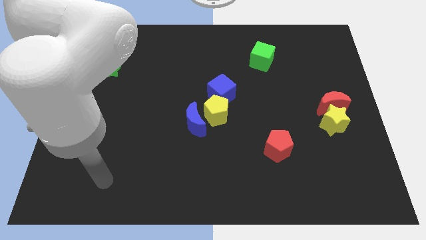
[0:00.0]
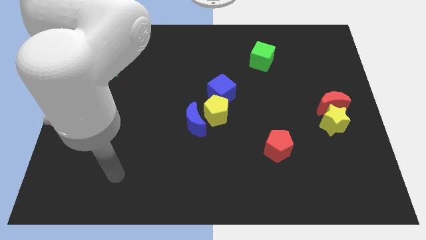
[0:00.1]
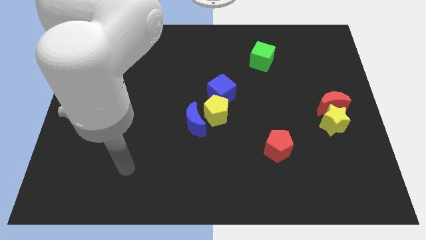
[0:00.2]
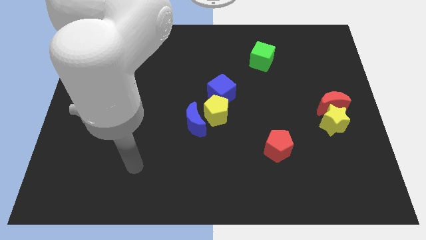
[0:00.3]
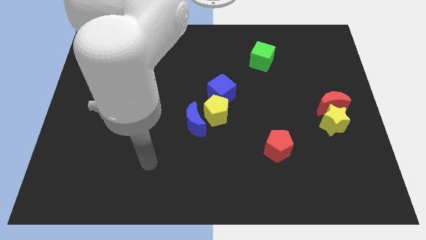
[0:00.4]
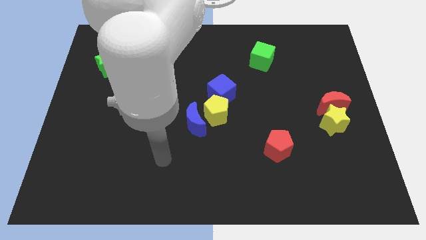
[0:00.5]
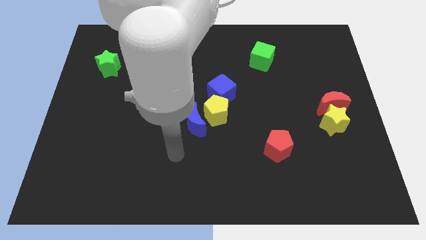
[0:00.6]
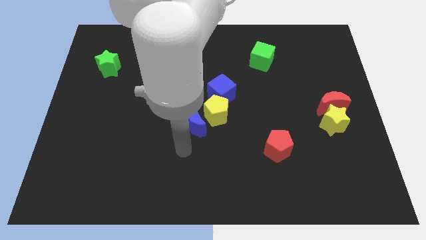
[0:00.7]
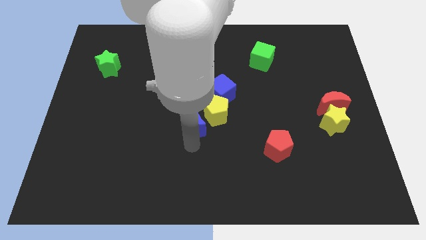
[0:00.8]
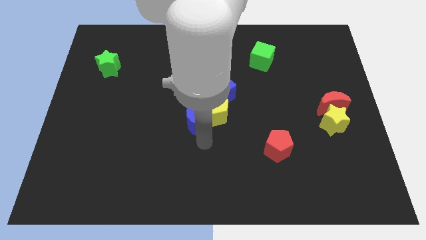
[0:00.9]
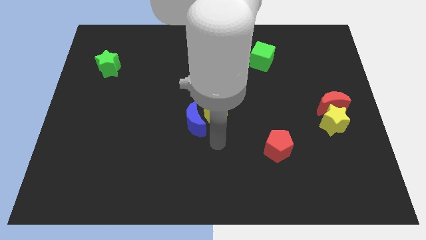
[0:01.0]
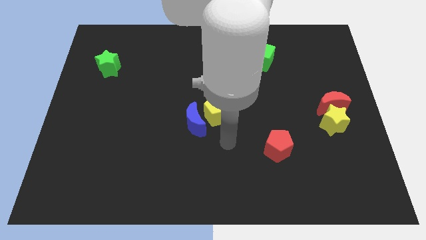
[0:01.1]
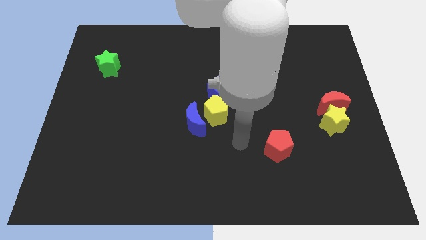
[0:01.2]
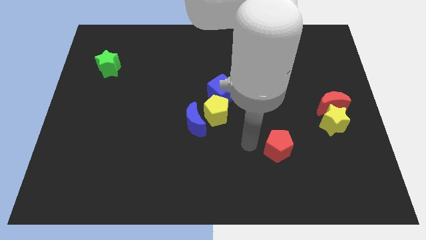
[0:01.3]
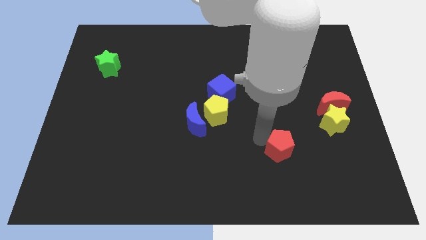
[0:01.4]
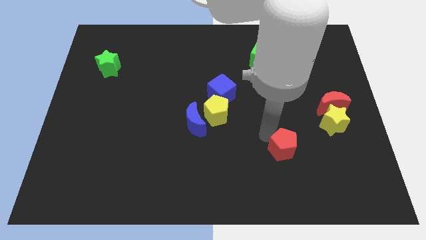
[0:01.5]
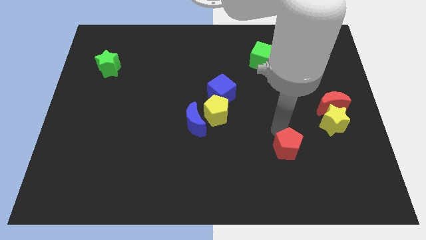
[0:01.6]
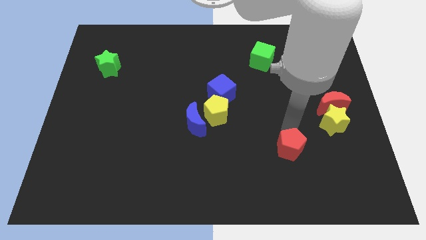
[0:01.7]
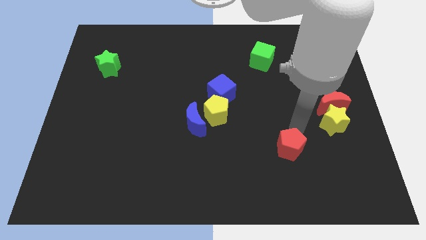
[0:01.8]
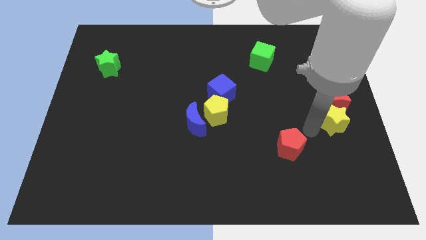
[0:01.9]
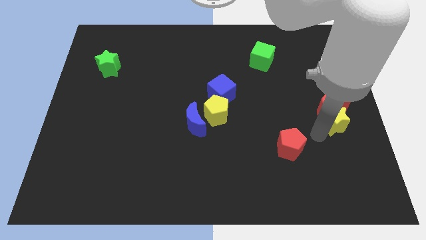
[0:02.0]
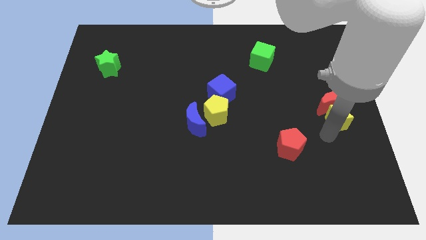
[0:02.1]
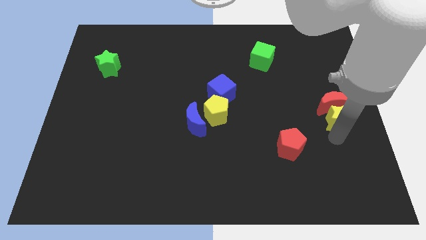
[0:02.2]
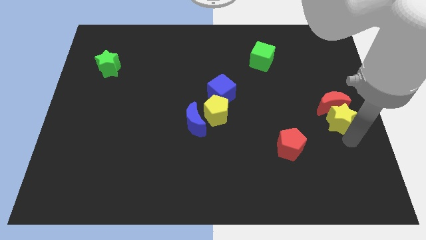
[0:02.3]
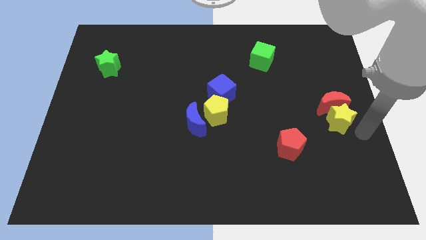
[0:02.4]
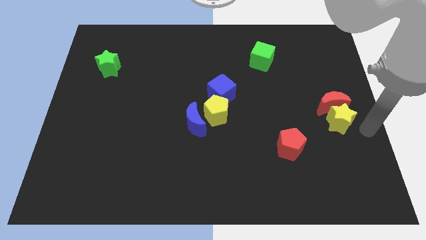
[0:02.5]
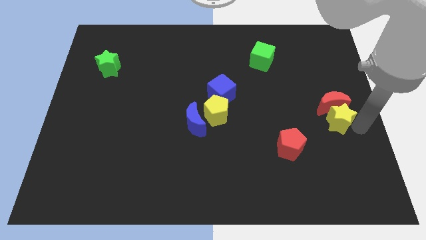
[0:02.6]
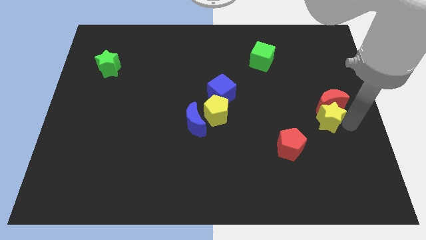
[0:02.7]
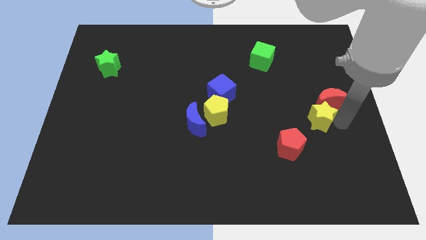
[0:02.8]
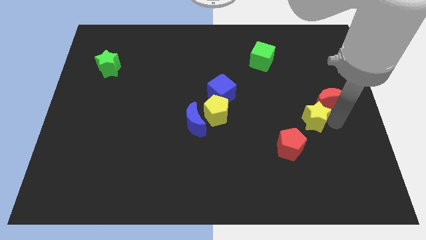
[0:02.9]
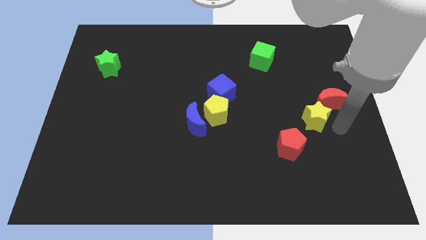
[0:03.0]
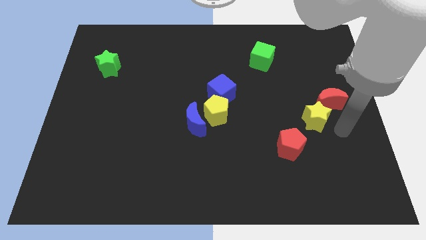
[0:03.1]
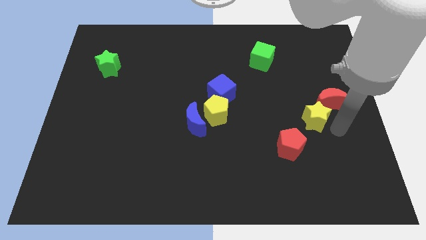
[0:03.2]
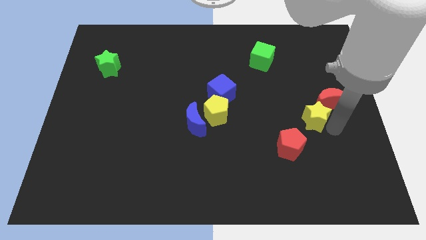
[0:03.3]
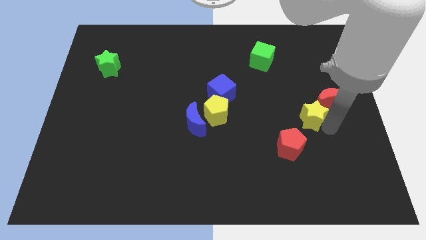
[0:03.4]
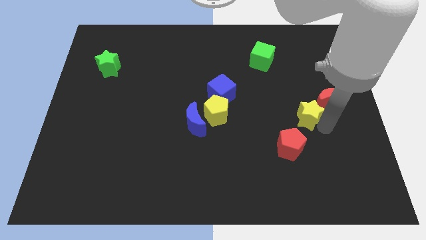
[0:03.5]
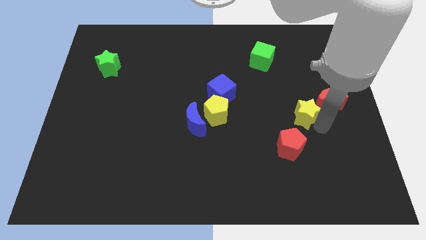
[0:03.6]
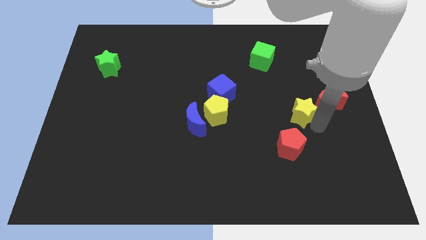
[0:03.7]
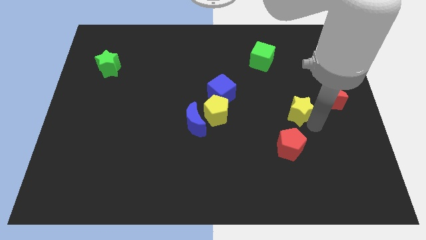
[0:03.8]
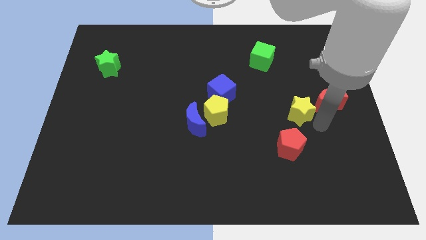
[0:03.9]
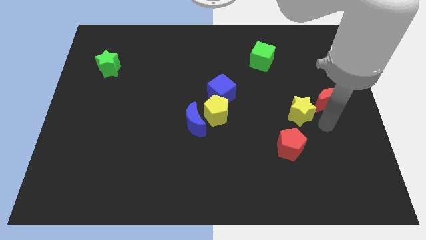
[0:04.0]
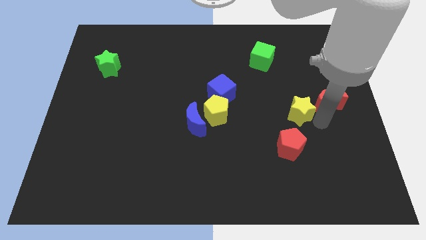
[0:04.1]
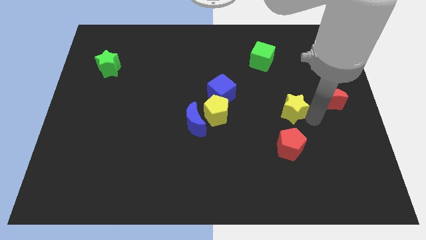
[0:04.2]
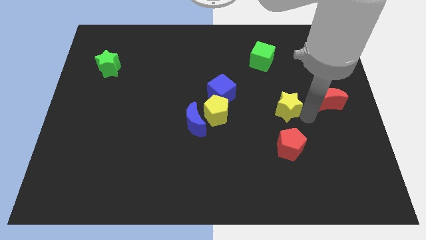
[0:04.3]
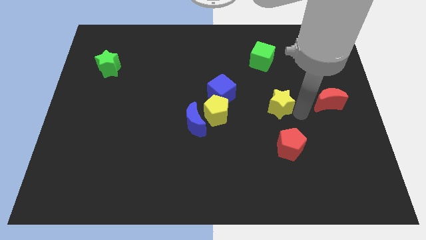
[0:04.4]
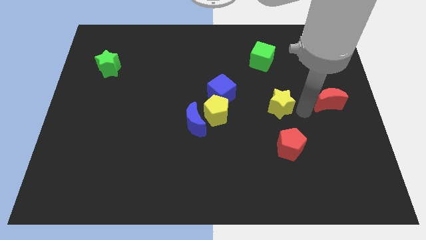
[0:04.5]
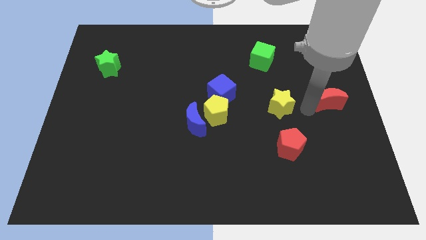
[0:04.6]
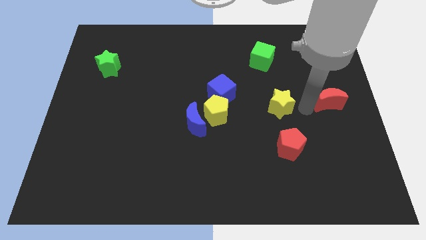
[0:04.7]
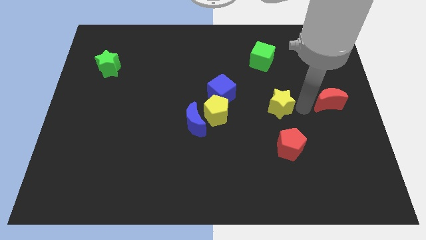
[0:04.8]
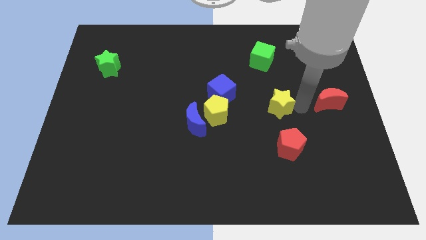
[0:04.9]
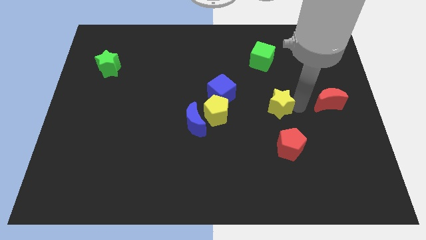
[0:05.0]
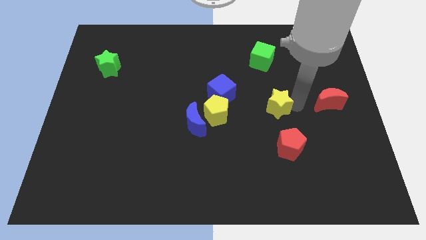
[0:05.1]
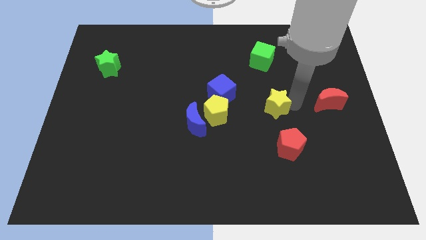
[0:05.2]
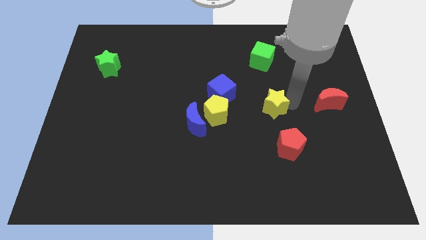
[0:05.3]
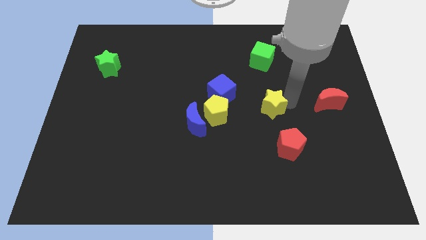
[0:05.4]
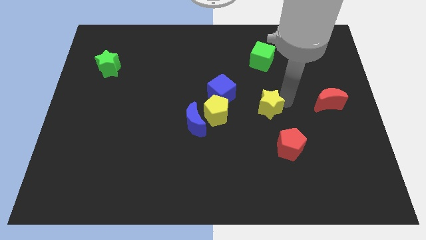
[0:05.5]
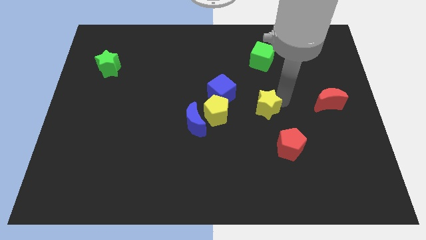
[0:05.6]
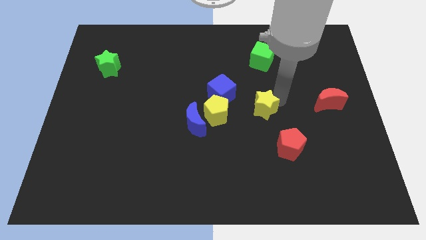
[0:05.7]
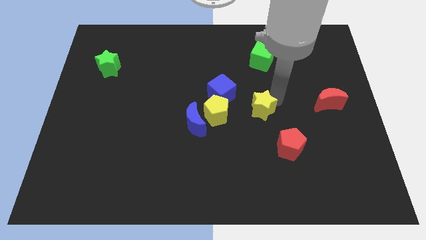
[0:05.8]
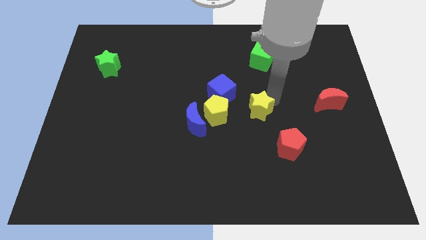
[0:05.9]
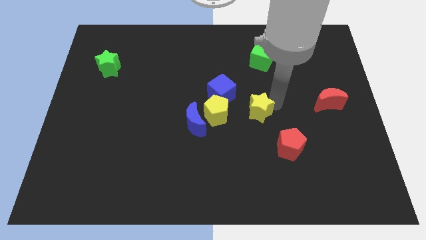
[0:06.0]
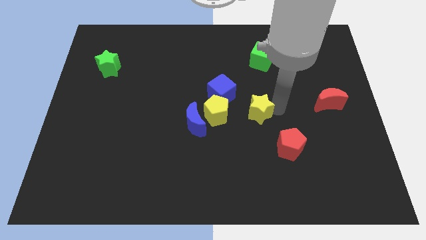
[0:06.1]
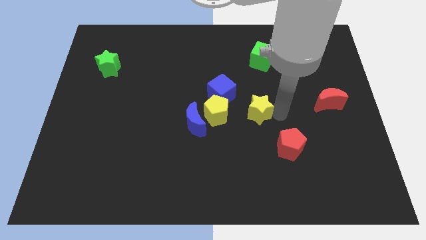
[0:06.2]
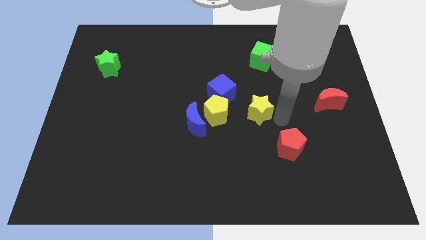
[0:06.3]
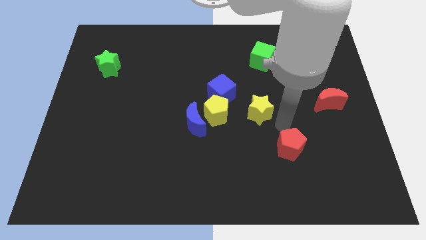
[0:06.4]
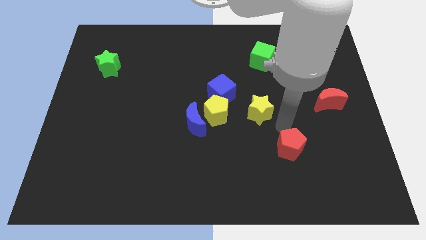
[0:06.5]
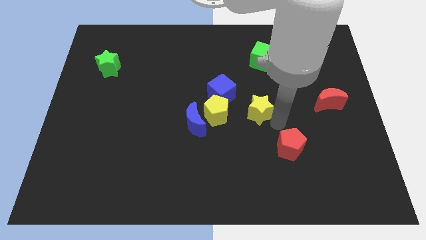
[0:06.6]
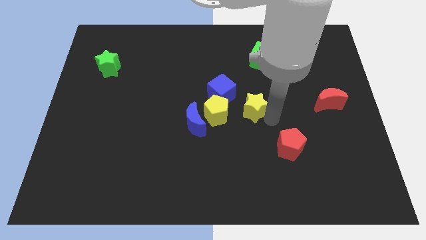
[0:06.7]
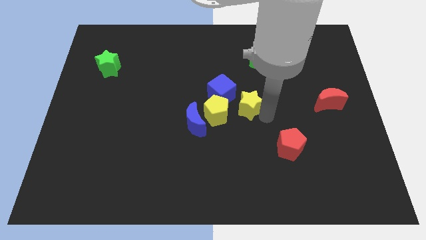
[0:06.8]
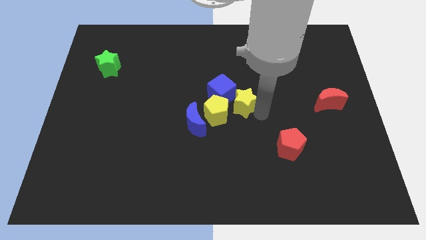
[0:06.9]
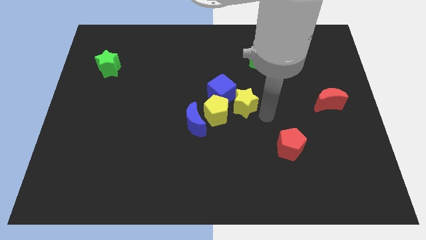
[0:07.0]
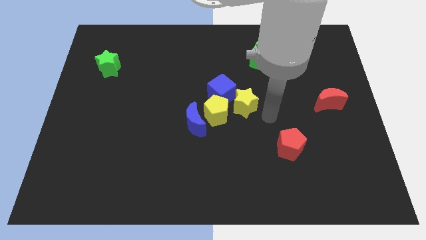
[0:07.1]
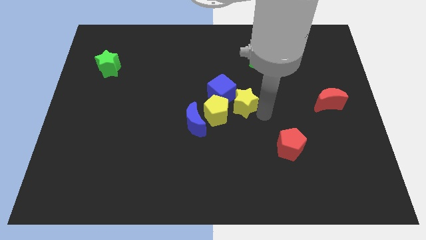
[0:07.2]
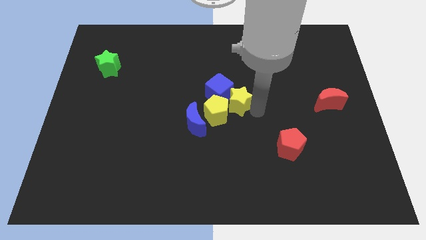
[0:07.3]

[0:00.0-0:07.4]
put the yellow star close to the blue cube
